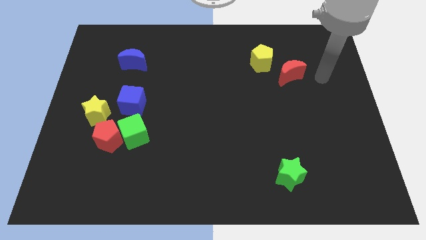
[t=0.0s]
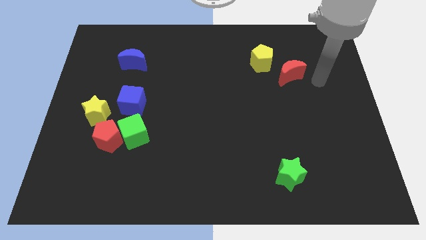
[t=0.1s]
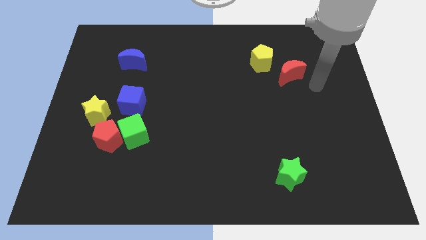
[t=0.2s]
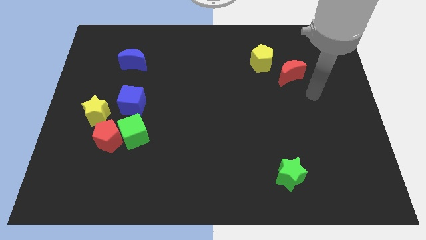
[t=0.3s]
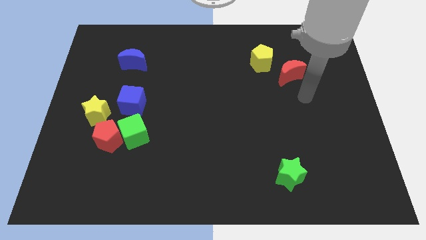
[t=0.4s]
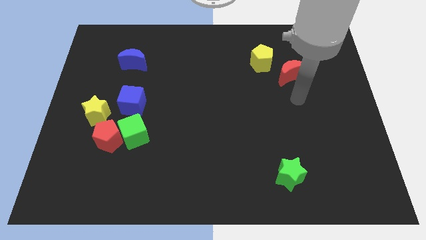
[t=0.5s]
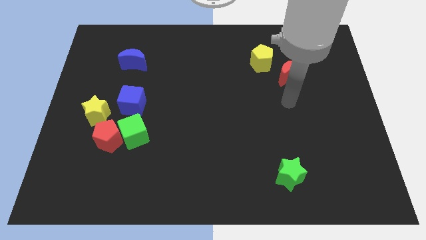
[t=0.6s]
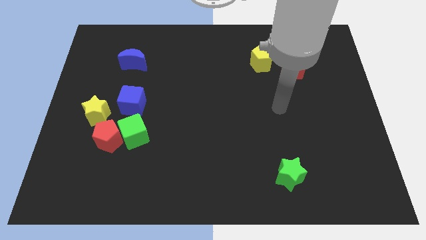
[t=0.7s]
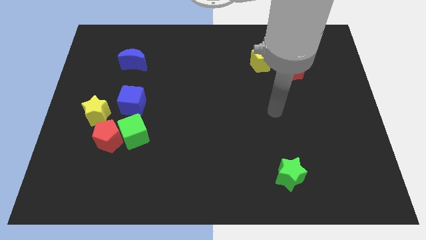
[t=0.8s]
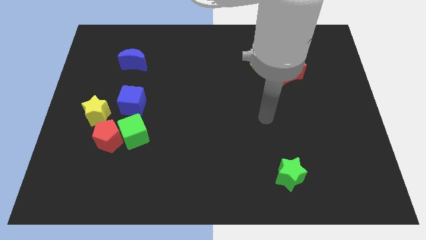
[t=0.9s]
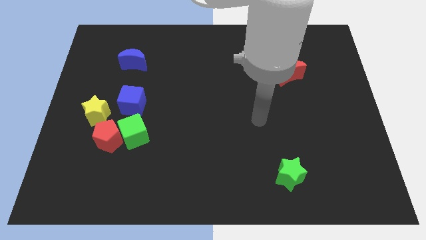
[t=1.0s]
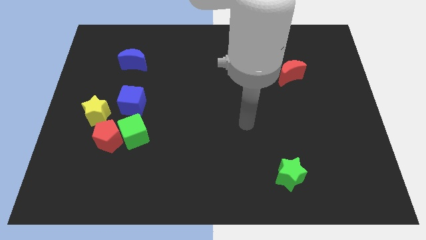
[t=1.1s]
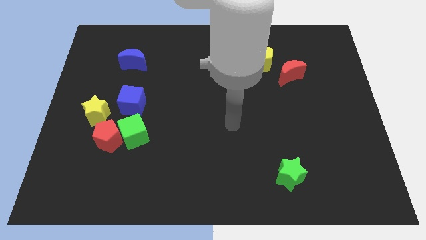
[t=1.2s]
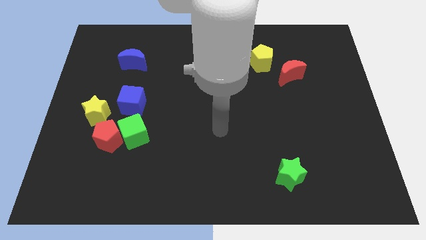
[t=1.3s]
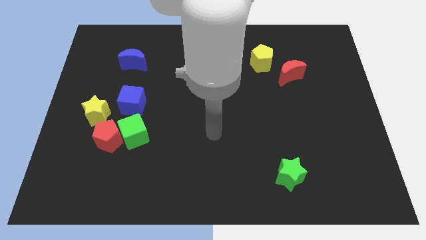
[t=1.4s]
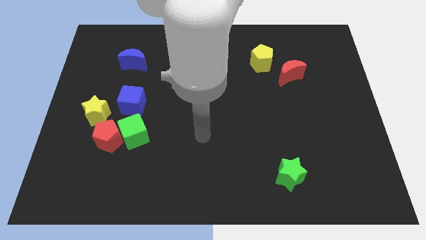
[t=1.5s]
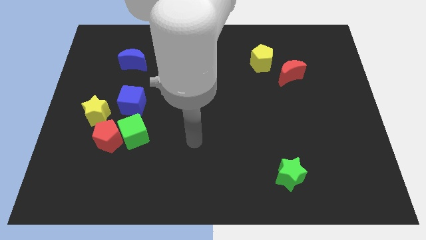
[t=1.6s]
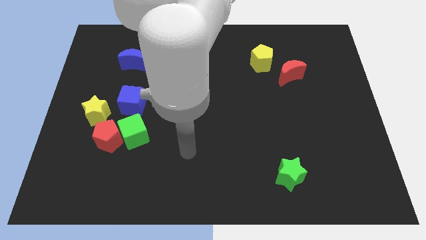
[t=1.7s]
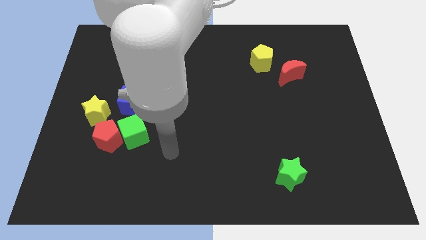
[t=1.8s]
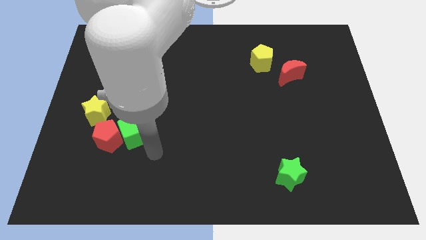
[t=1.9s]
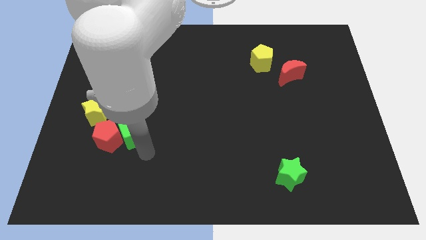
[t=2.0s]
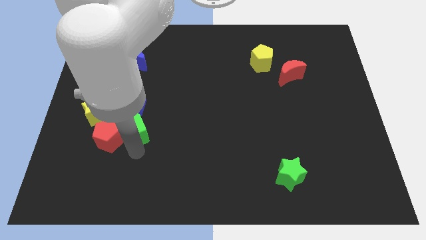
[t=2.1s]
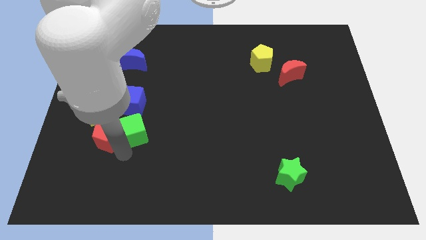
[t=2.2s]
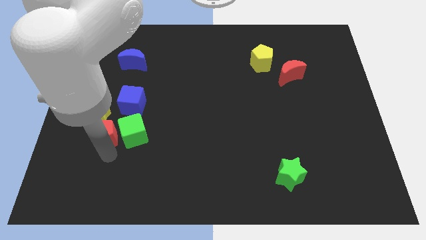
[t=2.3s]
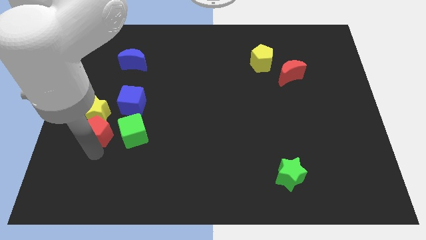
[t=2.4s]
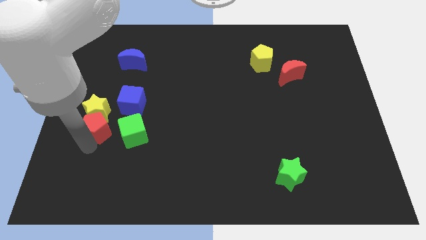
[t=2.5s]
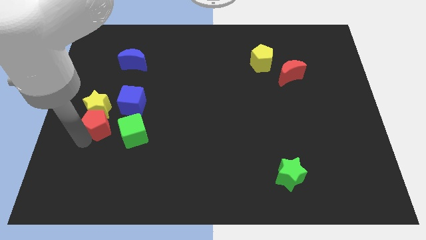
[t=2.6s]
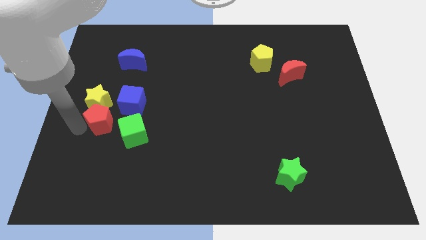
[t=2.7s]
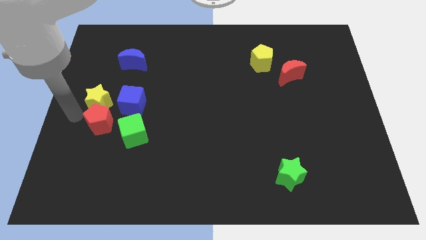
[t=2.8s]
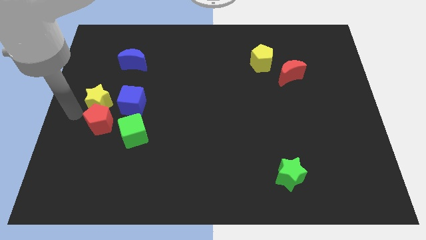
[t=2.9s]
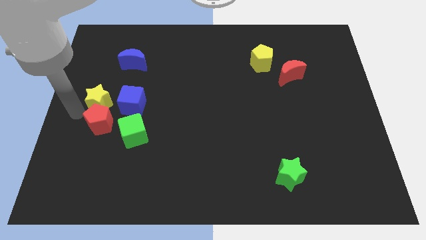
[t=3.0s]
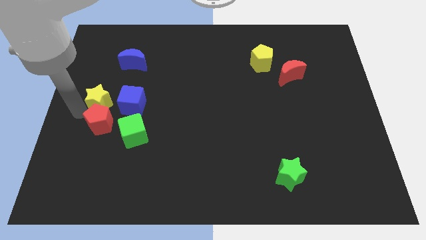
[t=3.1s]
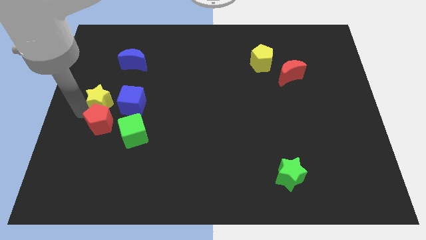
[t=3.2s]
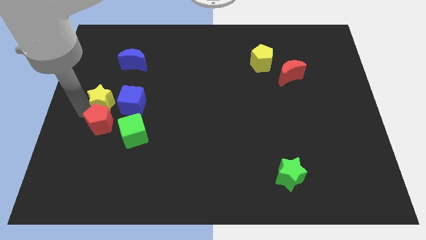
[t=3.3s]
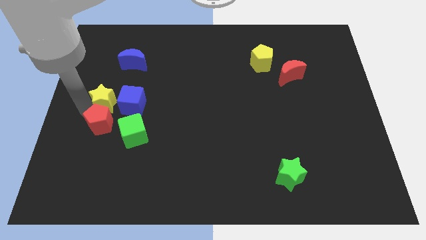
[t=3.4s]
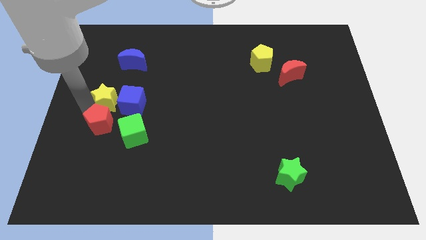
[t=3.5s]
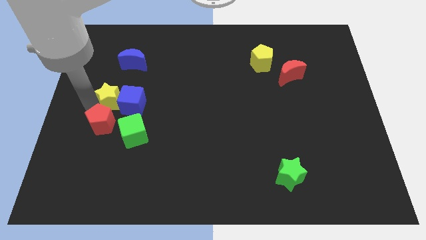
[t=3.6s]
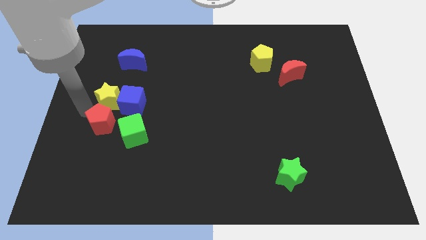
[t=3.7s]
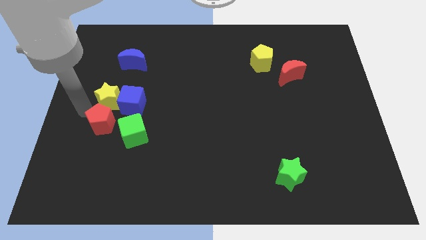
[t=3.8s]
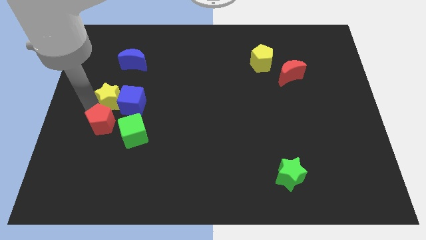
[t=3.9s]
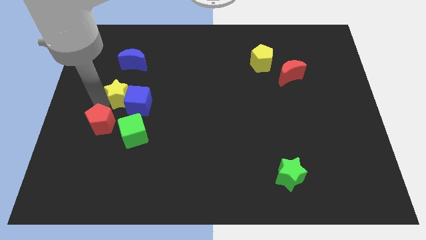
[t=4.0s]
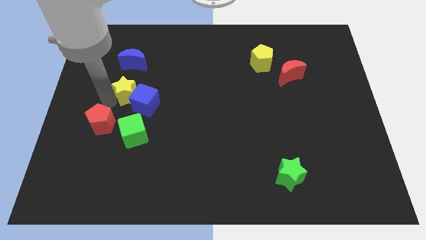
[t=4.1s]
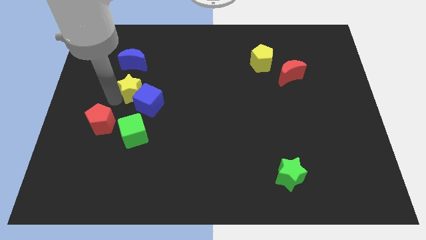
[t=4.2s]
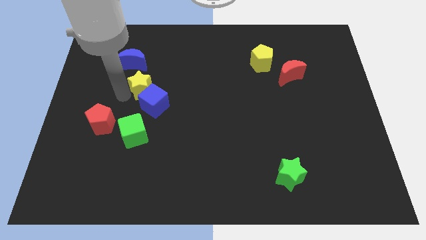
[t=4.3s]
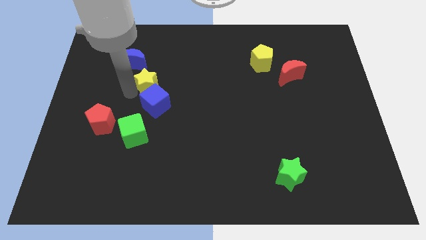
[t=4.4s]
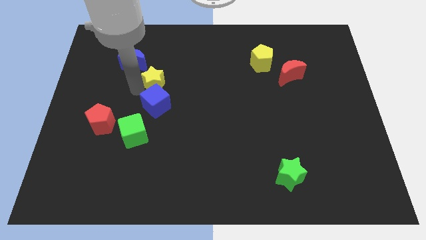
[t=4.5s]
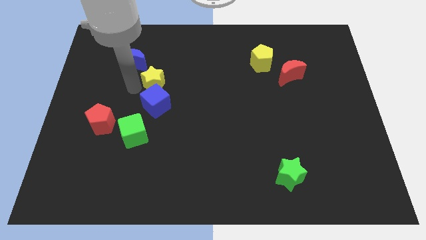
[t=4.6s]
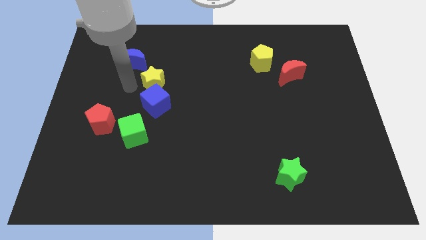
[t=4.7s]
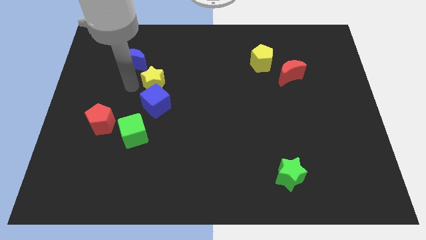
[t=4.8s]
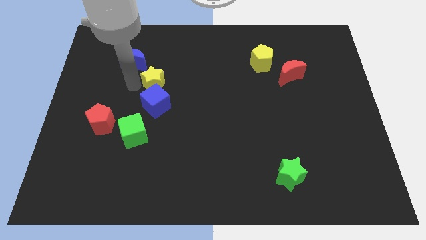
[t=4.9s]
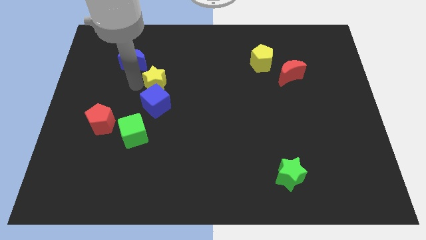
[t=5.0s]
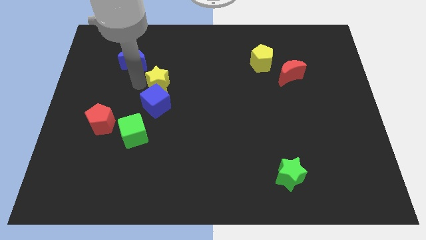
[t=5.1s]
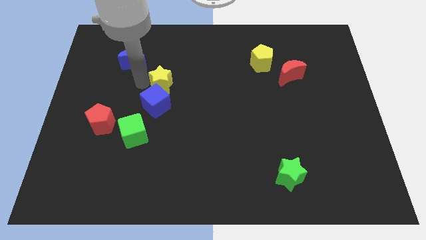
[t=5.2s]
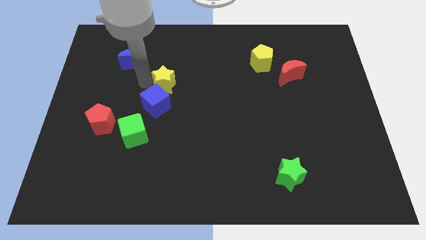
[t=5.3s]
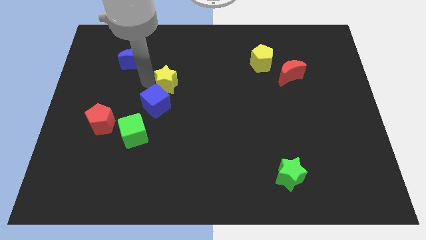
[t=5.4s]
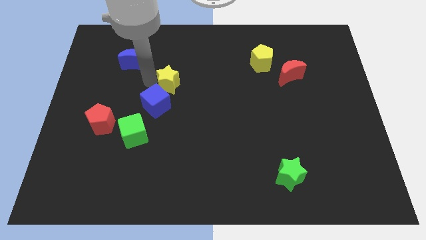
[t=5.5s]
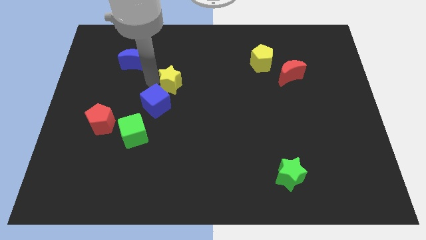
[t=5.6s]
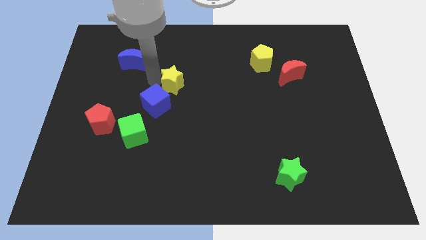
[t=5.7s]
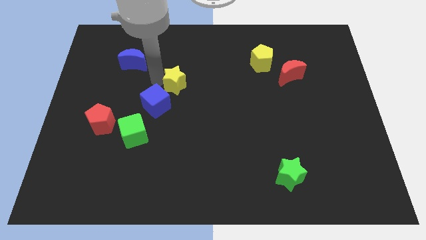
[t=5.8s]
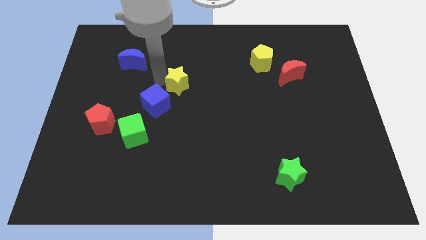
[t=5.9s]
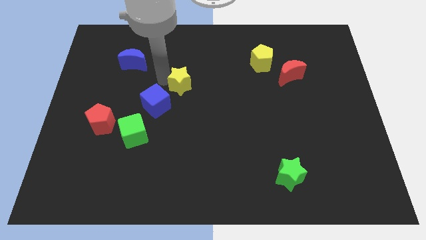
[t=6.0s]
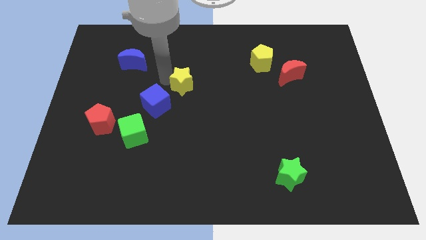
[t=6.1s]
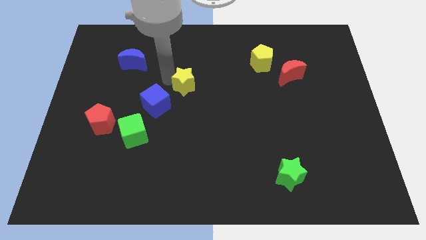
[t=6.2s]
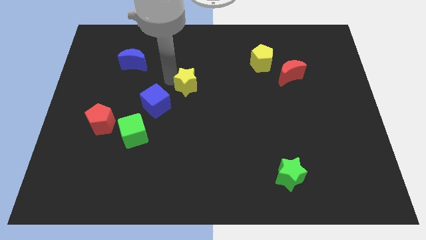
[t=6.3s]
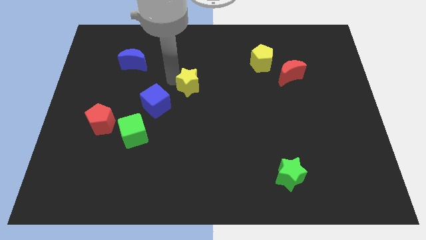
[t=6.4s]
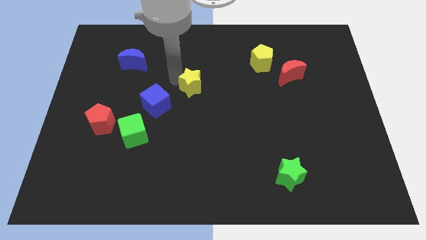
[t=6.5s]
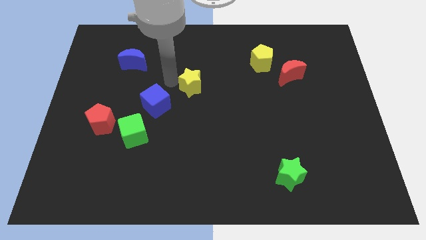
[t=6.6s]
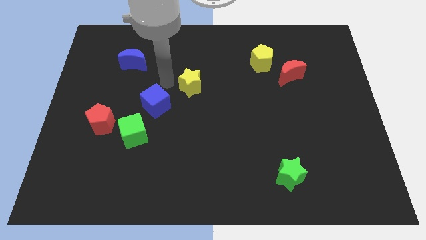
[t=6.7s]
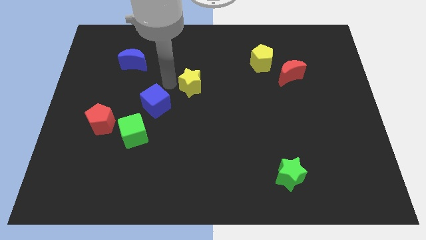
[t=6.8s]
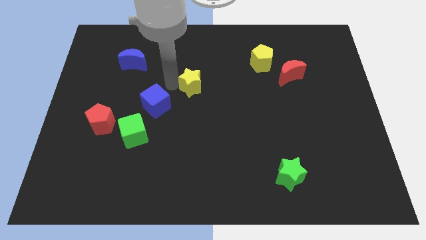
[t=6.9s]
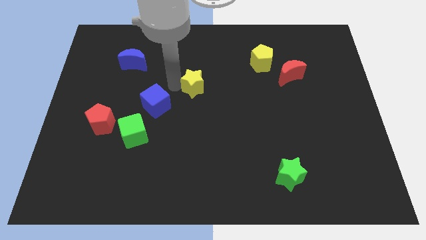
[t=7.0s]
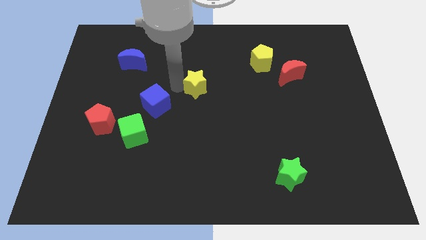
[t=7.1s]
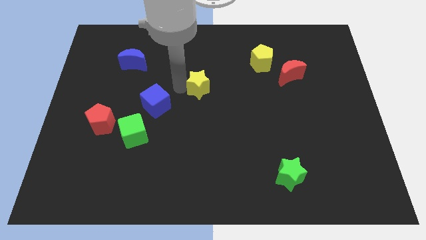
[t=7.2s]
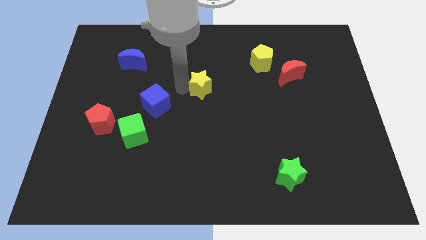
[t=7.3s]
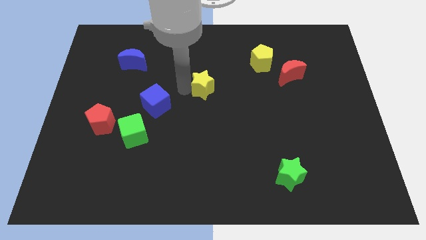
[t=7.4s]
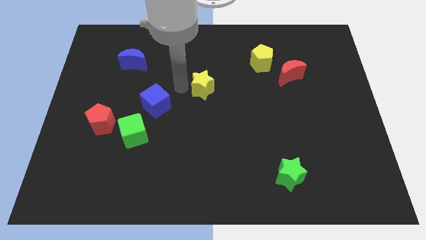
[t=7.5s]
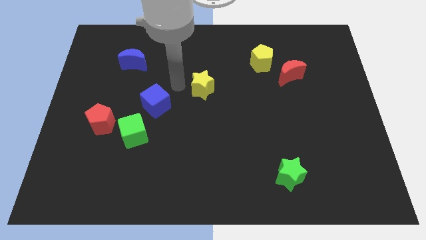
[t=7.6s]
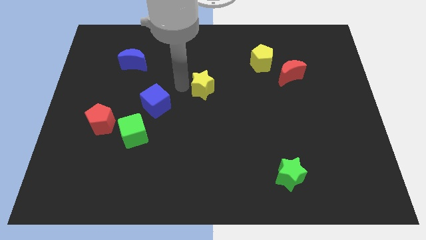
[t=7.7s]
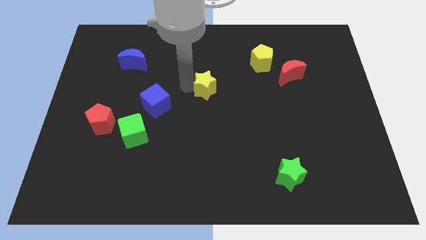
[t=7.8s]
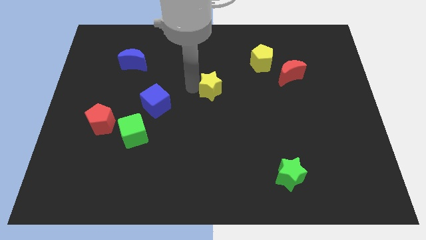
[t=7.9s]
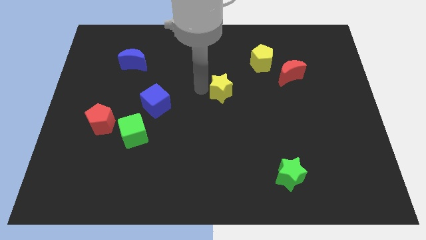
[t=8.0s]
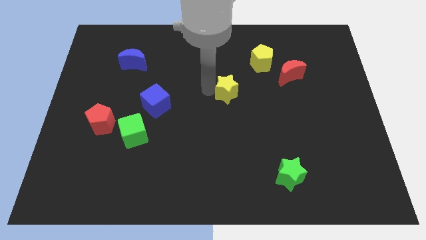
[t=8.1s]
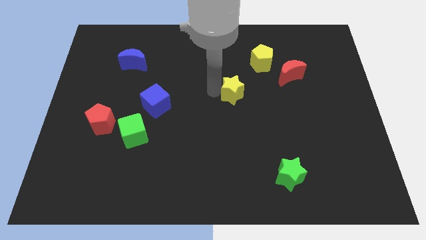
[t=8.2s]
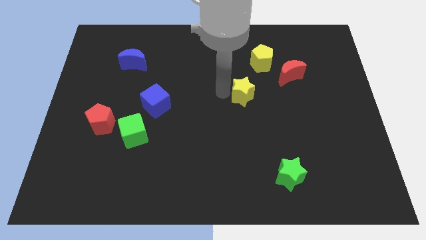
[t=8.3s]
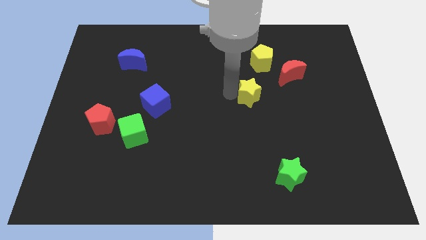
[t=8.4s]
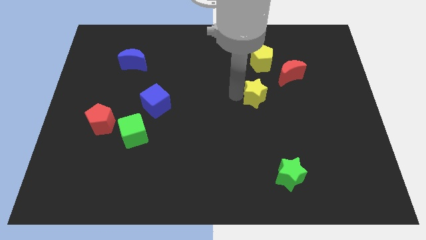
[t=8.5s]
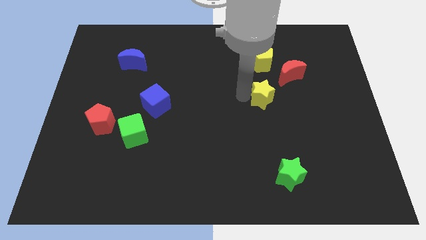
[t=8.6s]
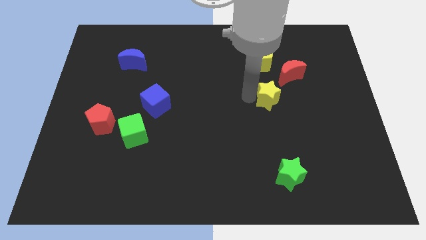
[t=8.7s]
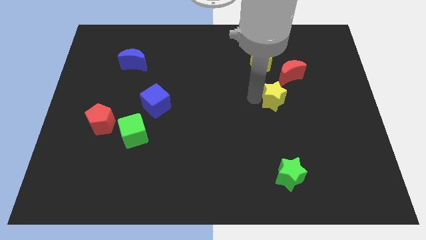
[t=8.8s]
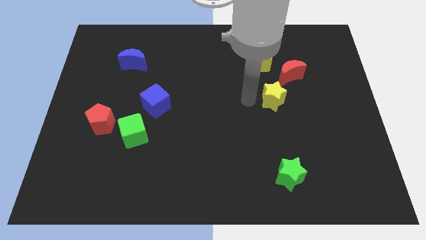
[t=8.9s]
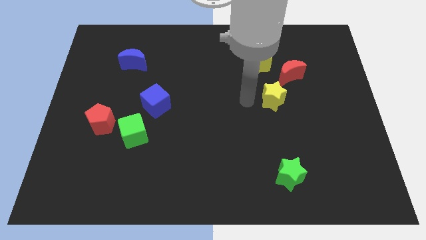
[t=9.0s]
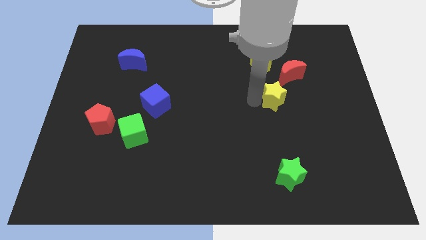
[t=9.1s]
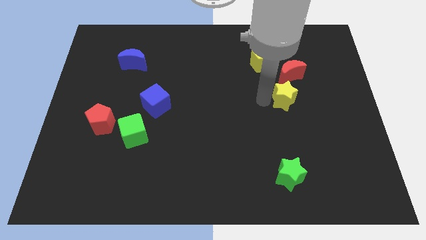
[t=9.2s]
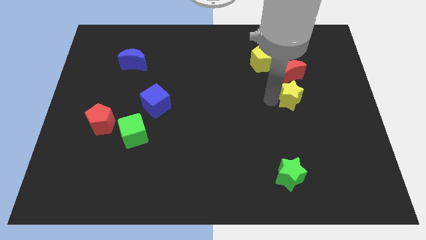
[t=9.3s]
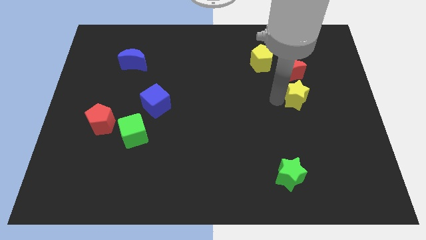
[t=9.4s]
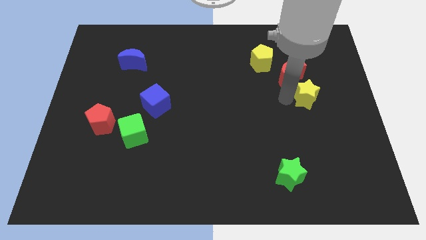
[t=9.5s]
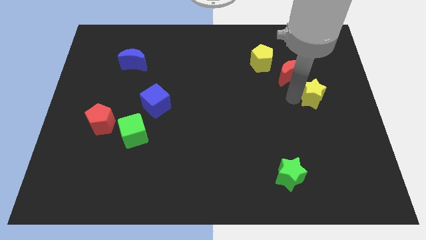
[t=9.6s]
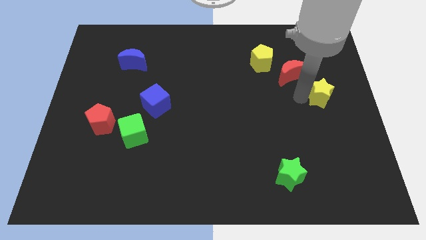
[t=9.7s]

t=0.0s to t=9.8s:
push the yellow star to the right side of the board
